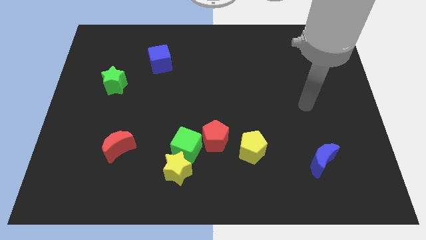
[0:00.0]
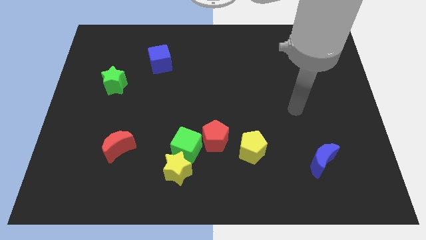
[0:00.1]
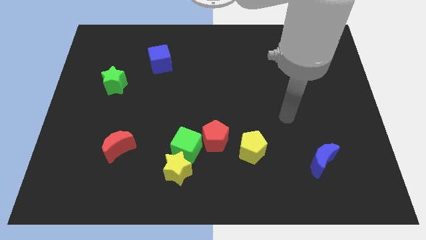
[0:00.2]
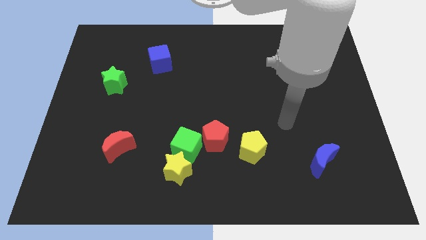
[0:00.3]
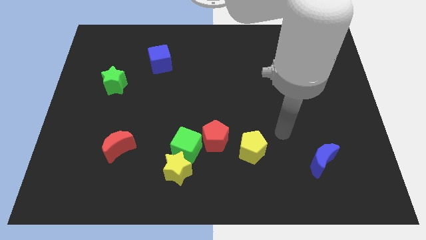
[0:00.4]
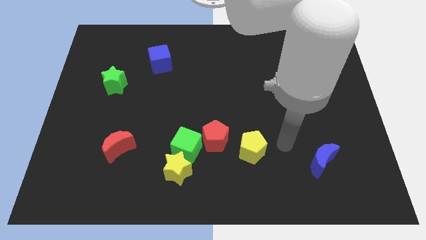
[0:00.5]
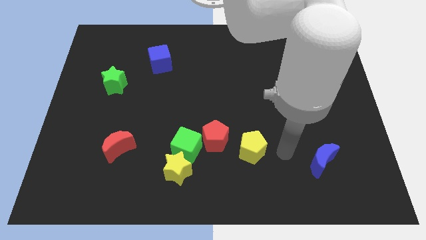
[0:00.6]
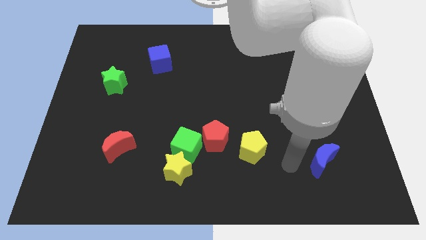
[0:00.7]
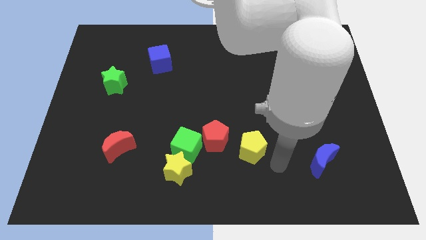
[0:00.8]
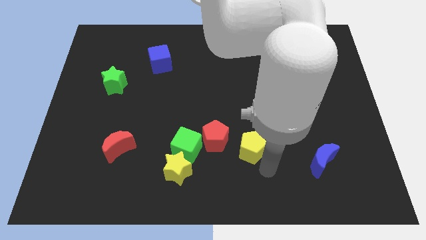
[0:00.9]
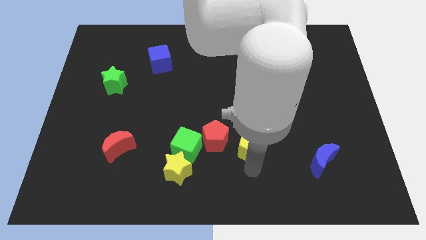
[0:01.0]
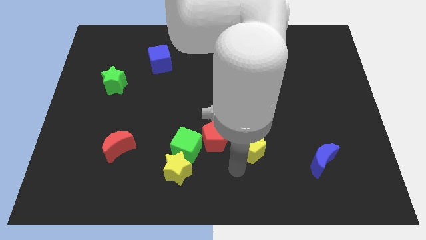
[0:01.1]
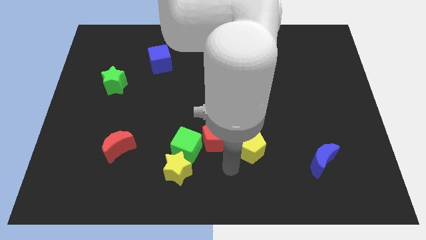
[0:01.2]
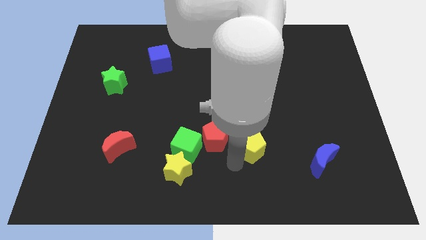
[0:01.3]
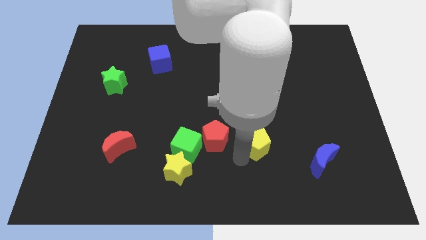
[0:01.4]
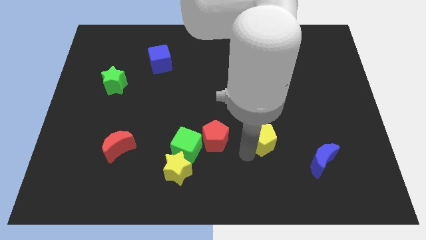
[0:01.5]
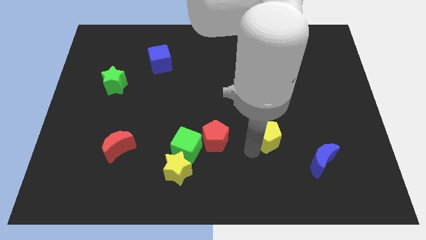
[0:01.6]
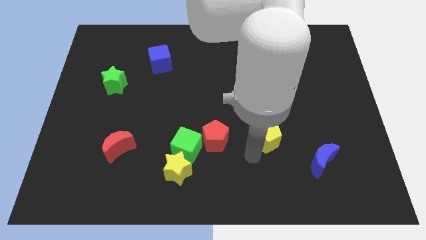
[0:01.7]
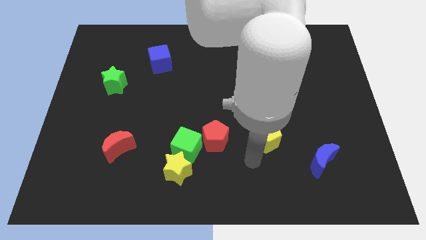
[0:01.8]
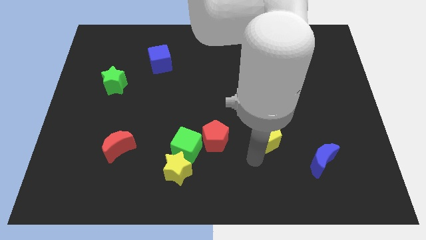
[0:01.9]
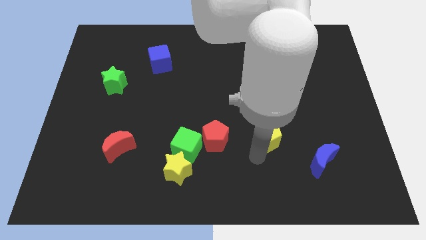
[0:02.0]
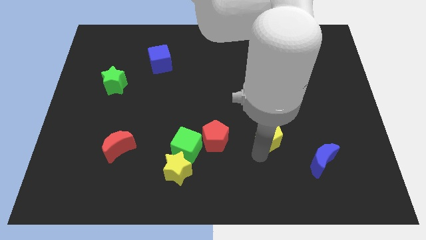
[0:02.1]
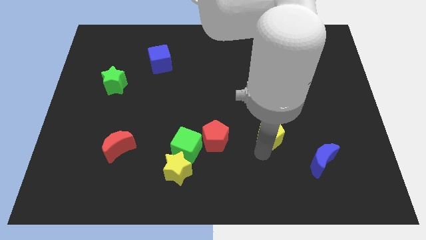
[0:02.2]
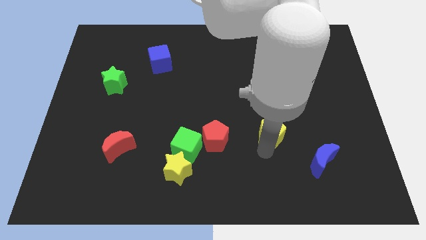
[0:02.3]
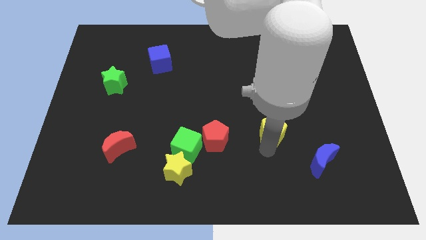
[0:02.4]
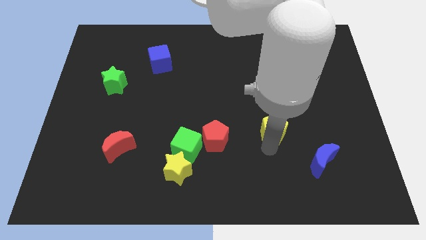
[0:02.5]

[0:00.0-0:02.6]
slide the yellow pentagon upwards and right diagonally a bit

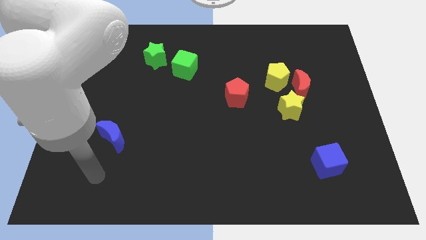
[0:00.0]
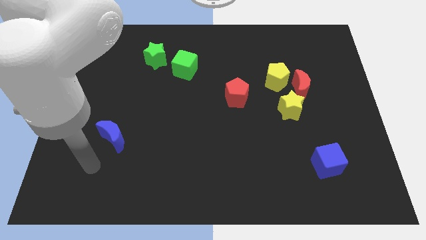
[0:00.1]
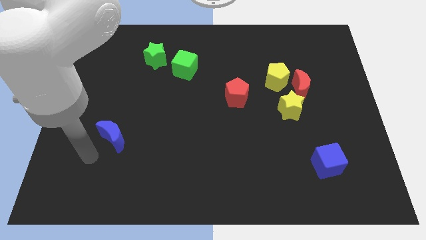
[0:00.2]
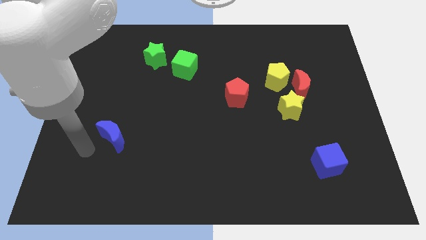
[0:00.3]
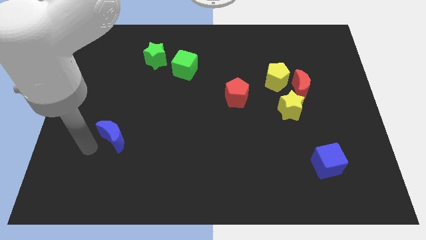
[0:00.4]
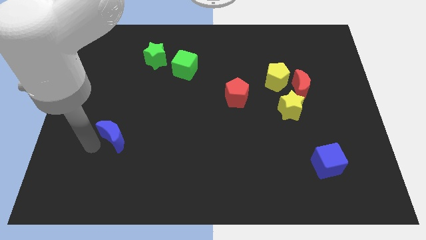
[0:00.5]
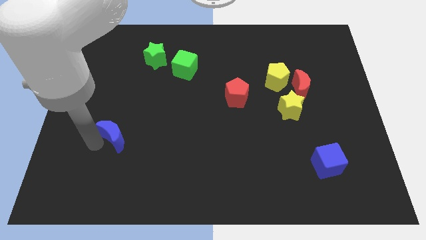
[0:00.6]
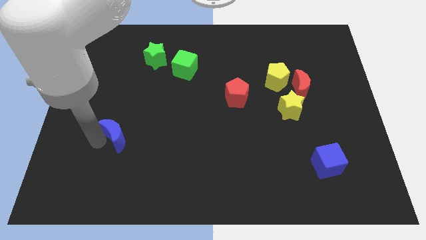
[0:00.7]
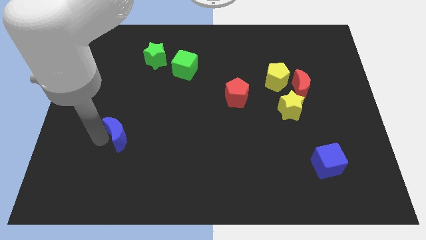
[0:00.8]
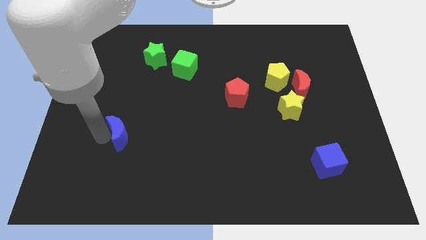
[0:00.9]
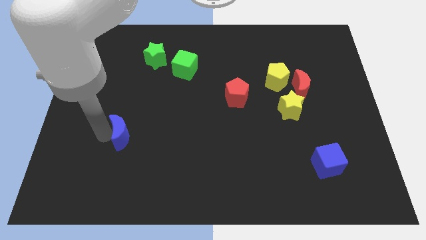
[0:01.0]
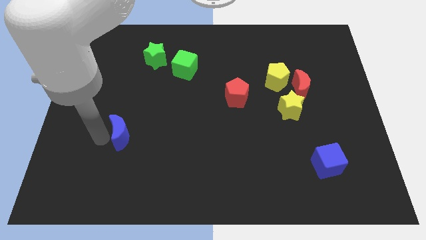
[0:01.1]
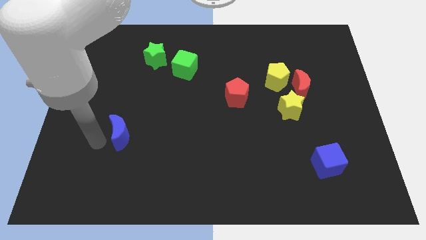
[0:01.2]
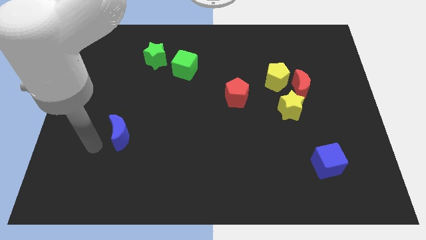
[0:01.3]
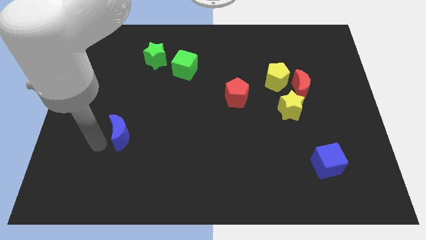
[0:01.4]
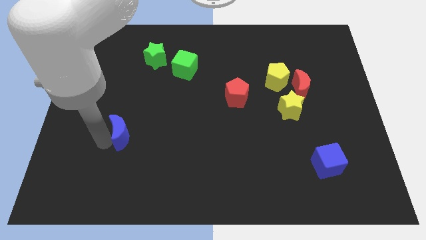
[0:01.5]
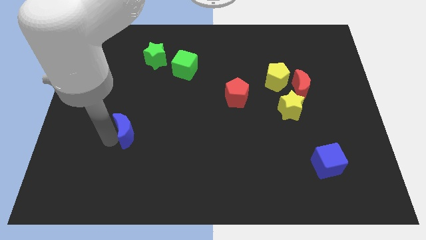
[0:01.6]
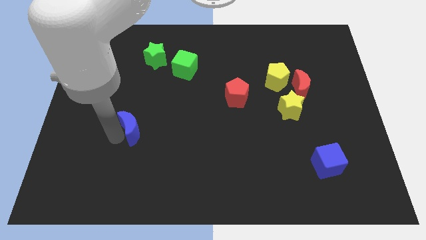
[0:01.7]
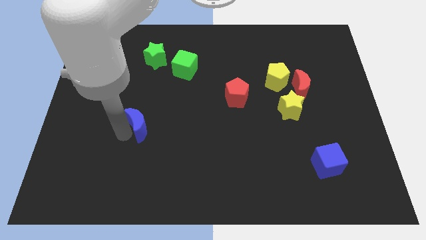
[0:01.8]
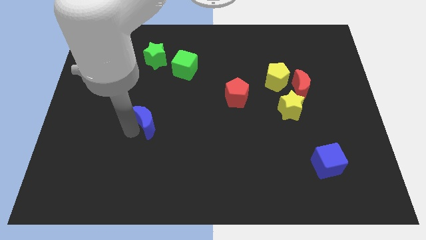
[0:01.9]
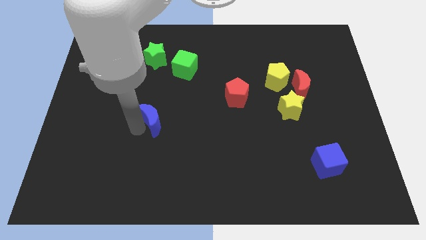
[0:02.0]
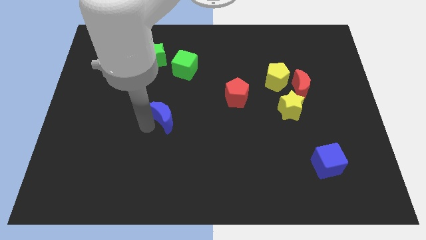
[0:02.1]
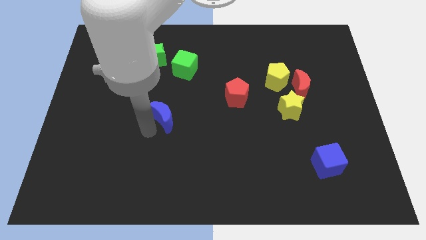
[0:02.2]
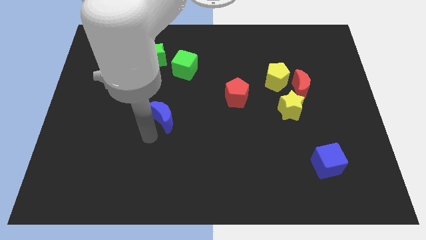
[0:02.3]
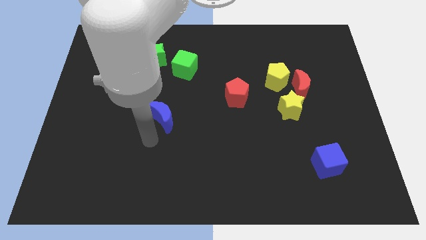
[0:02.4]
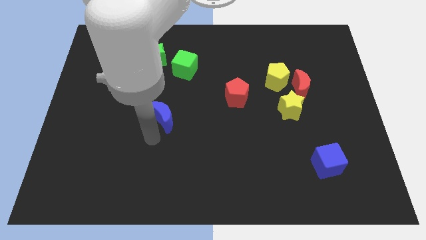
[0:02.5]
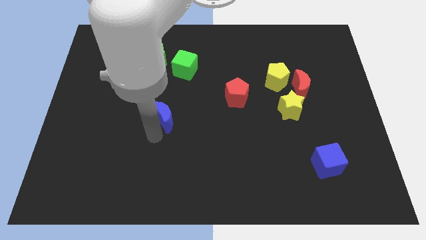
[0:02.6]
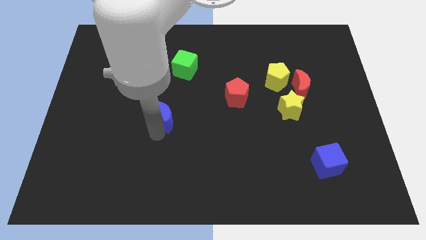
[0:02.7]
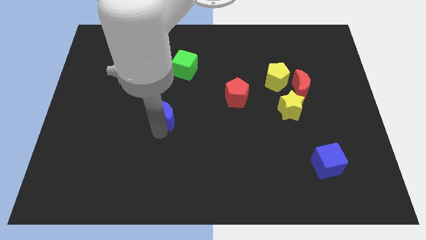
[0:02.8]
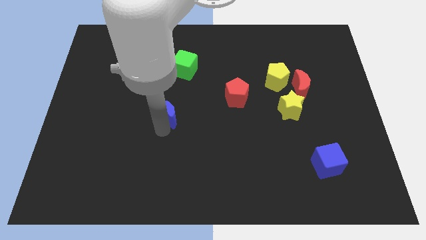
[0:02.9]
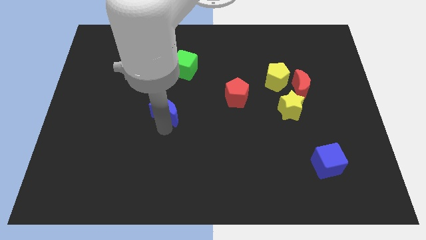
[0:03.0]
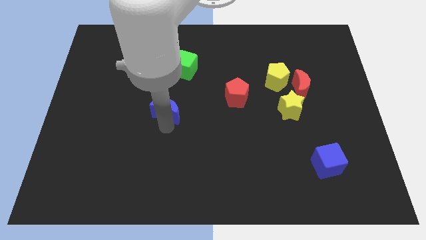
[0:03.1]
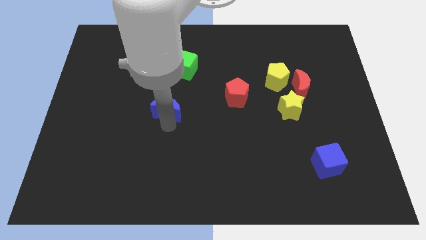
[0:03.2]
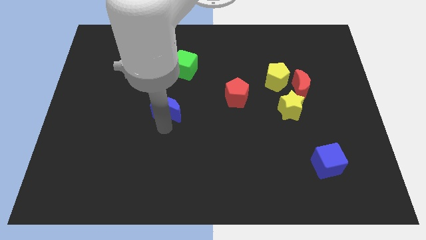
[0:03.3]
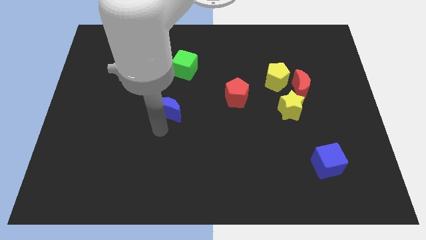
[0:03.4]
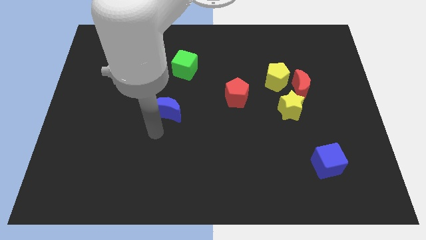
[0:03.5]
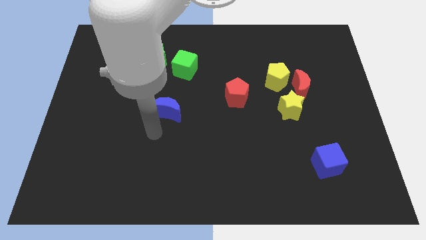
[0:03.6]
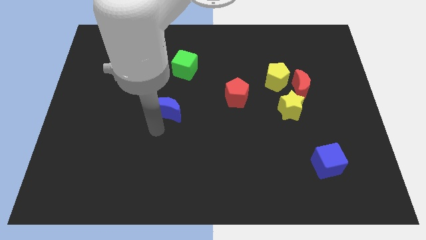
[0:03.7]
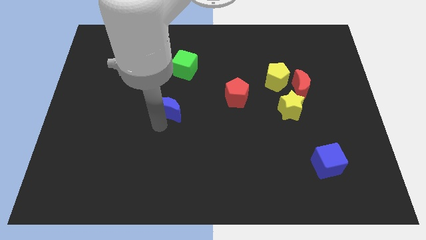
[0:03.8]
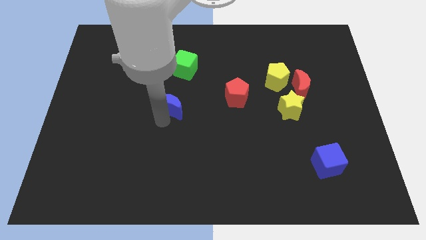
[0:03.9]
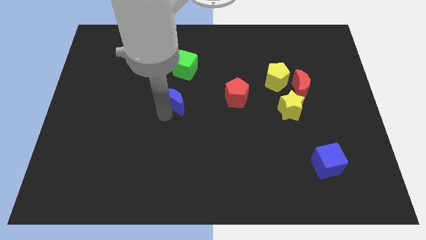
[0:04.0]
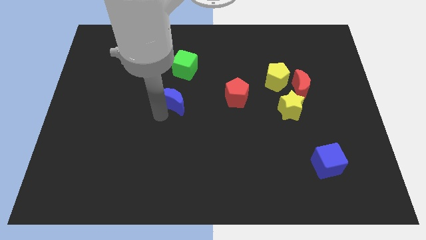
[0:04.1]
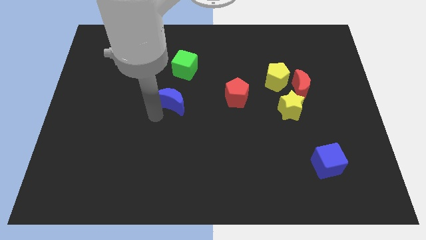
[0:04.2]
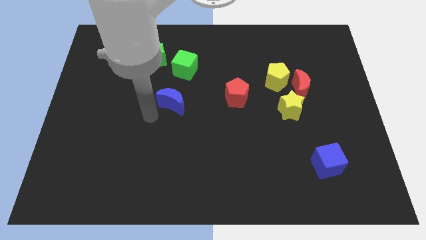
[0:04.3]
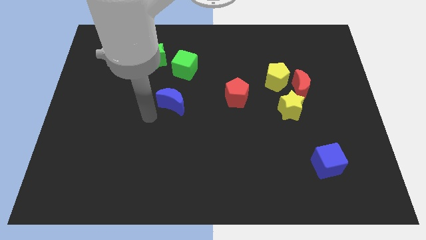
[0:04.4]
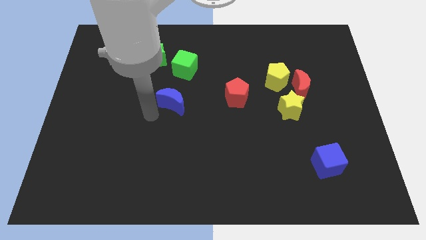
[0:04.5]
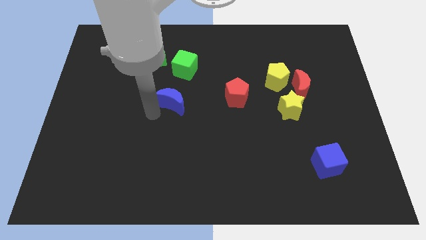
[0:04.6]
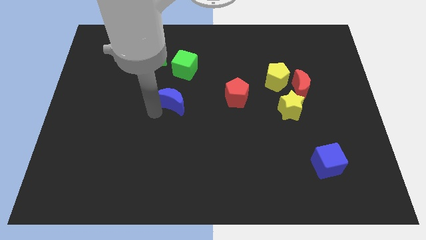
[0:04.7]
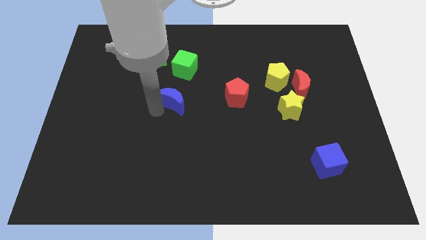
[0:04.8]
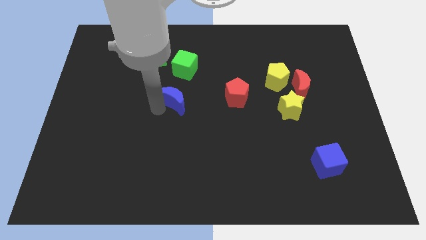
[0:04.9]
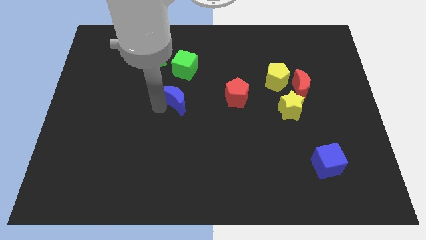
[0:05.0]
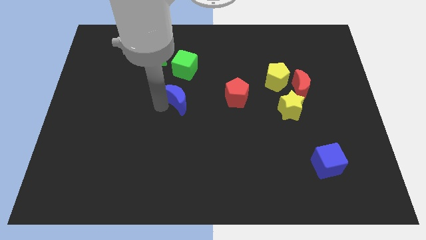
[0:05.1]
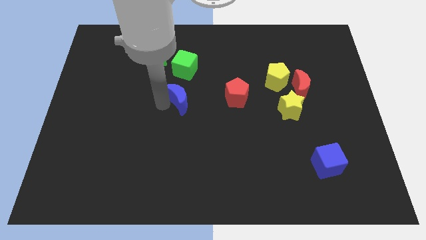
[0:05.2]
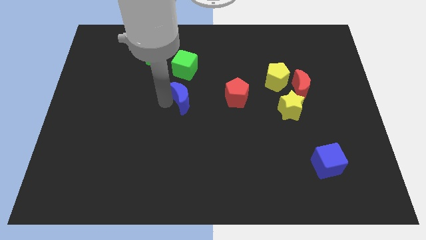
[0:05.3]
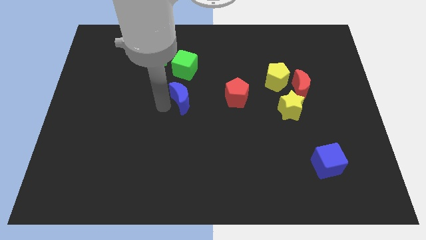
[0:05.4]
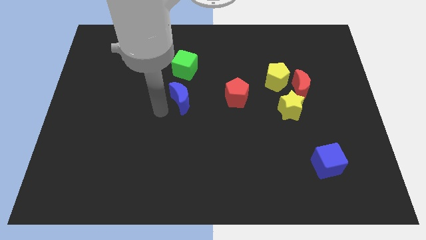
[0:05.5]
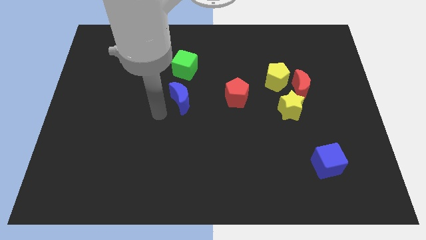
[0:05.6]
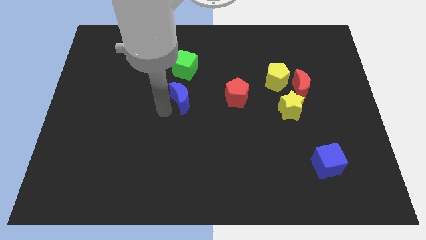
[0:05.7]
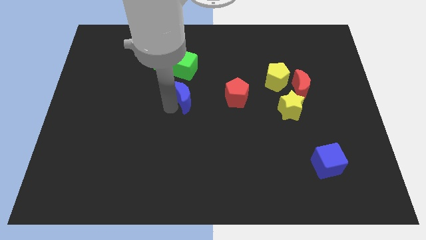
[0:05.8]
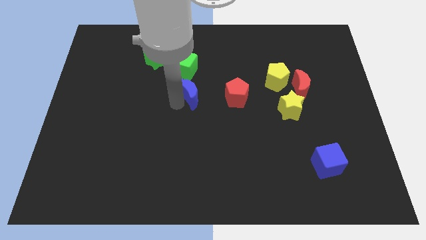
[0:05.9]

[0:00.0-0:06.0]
slide the blue moon up and to the right diagonally
